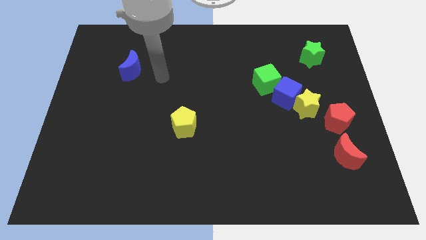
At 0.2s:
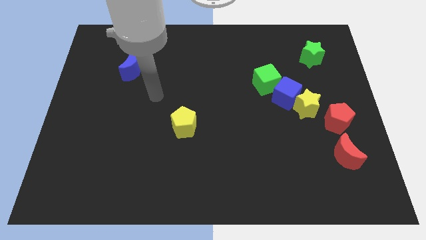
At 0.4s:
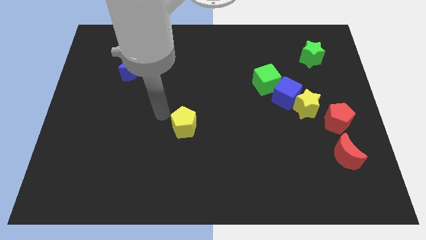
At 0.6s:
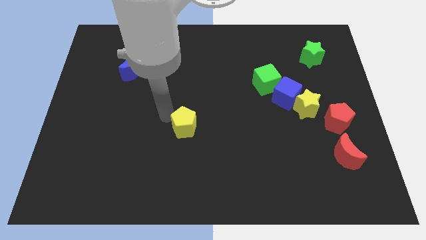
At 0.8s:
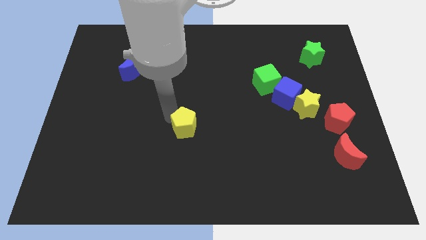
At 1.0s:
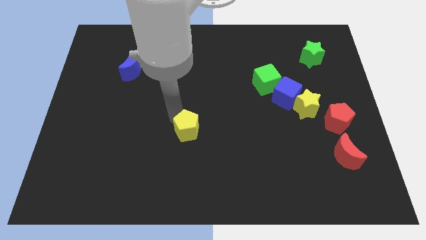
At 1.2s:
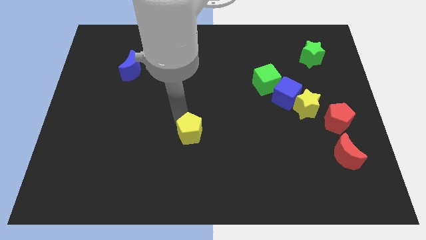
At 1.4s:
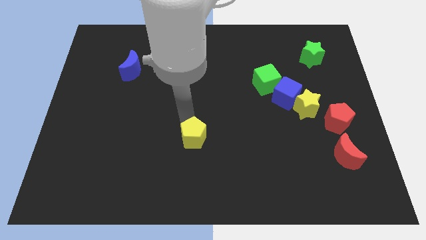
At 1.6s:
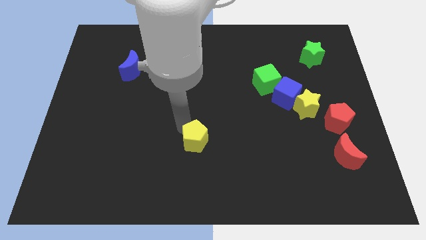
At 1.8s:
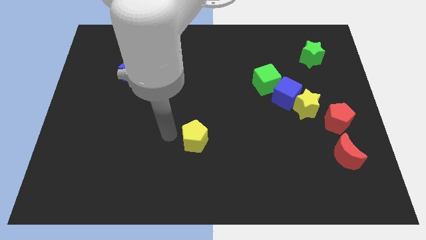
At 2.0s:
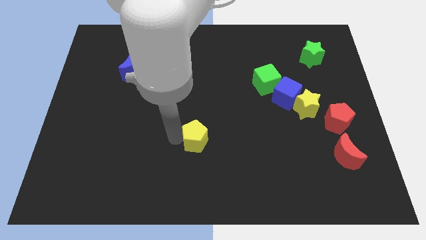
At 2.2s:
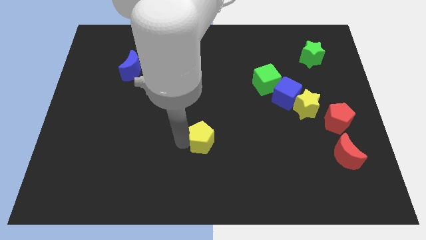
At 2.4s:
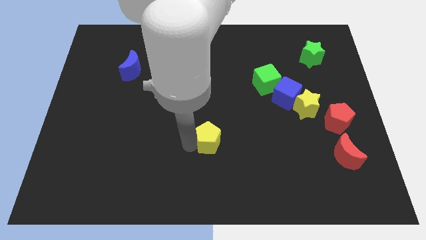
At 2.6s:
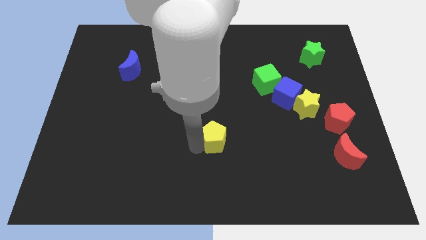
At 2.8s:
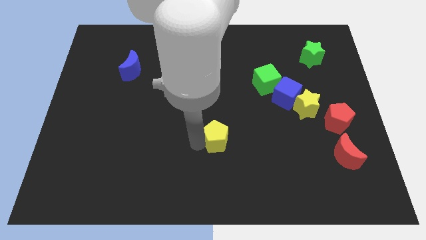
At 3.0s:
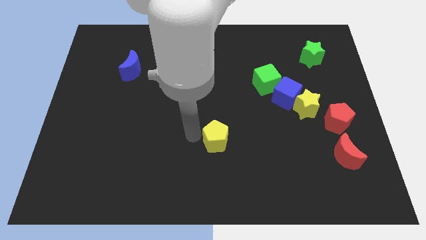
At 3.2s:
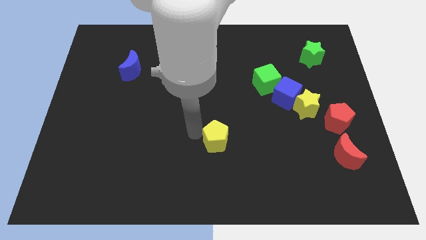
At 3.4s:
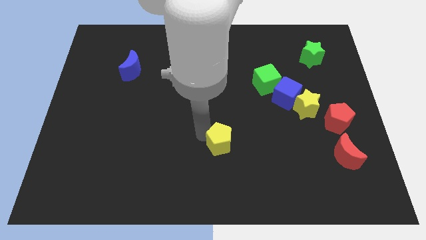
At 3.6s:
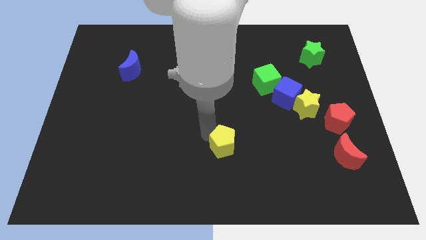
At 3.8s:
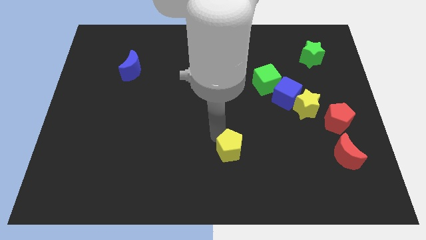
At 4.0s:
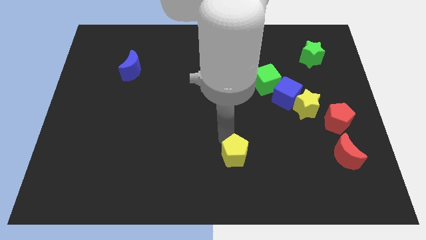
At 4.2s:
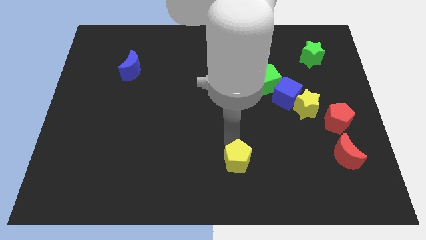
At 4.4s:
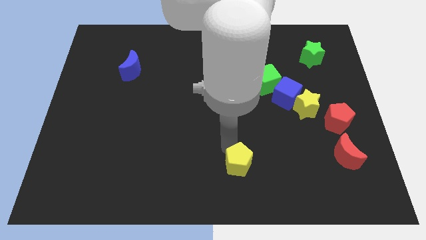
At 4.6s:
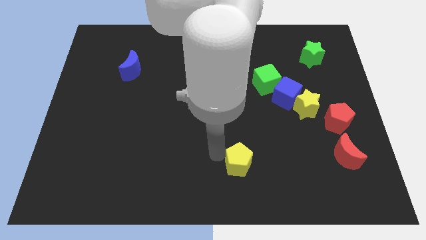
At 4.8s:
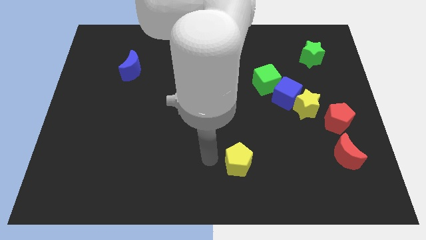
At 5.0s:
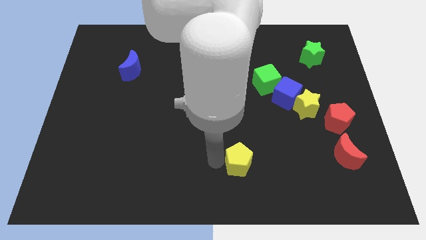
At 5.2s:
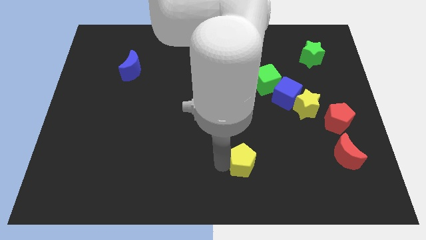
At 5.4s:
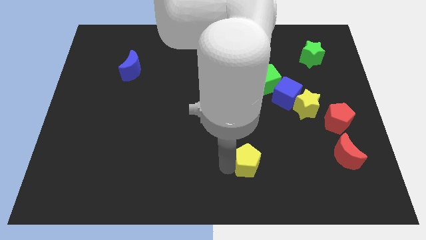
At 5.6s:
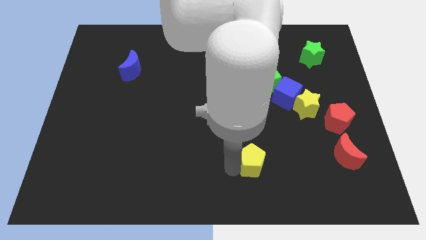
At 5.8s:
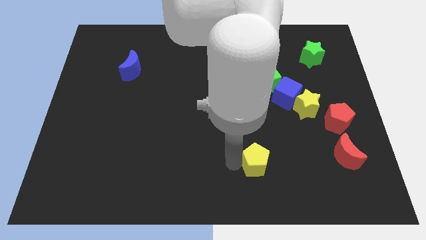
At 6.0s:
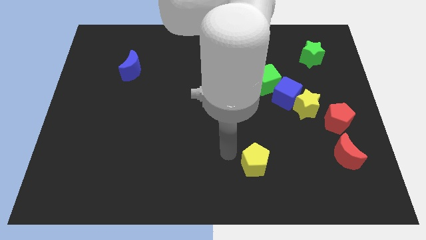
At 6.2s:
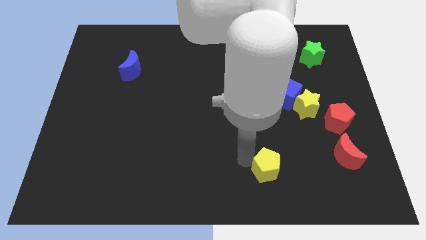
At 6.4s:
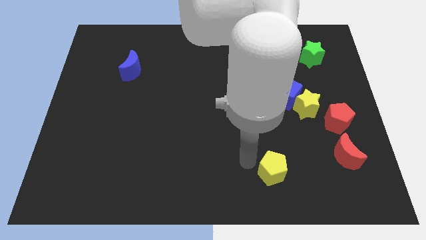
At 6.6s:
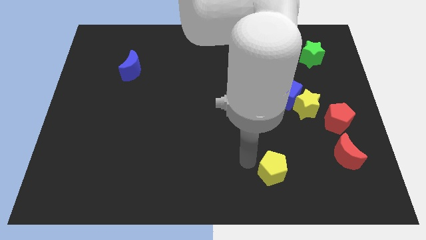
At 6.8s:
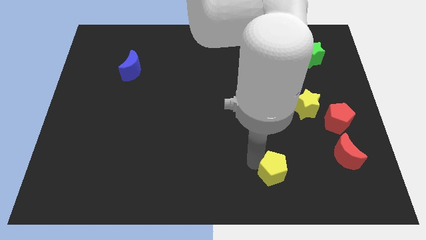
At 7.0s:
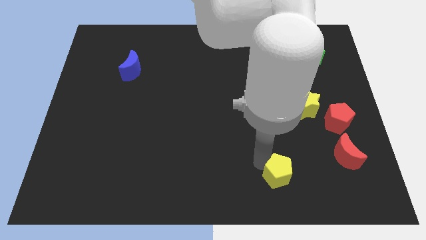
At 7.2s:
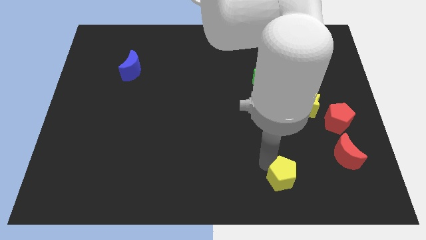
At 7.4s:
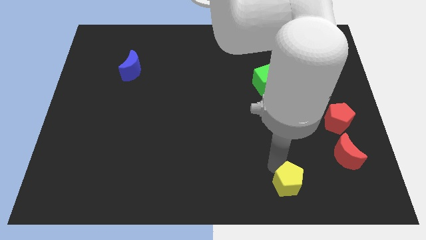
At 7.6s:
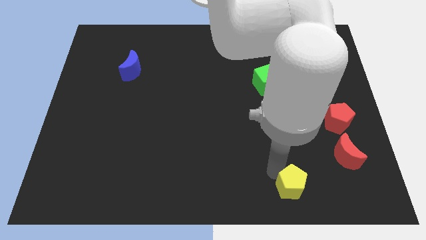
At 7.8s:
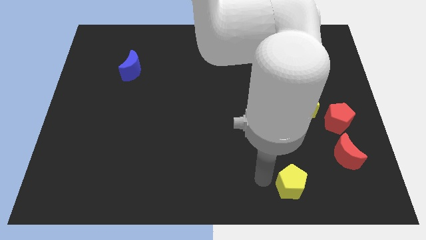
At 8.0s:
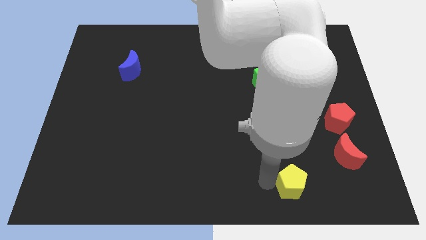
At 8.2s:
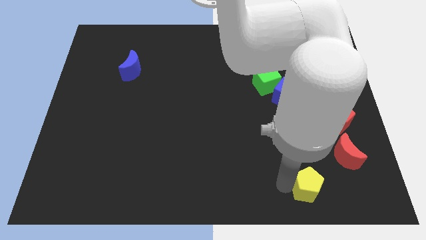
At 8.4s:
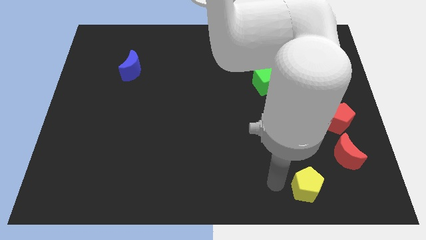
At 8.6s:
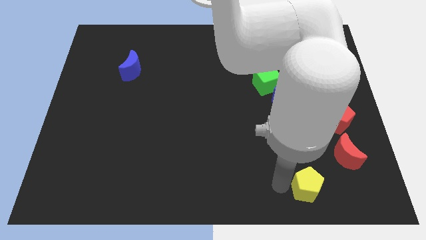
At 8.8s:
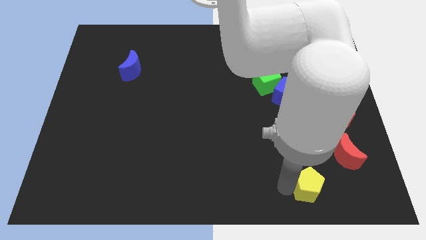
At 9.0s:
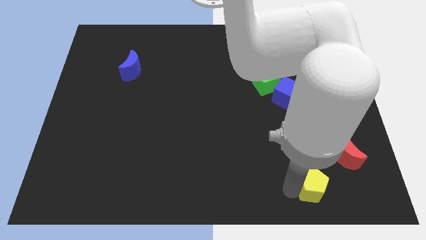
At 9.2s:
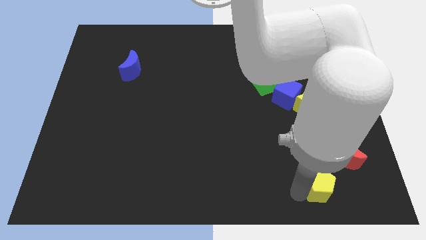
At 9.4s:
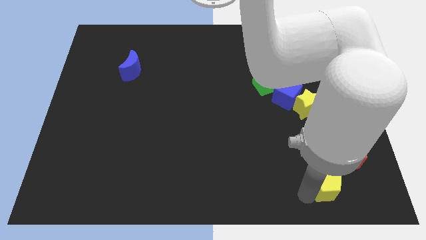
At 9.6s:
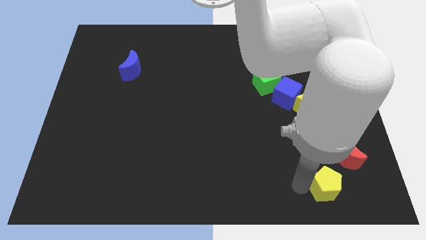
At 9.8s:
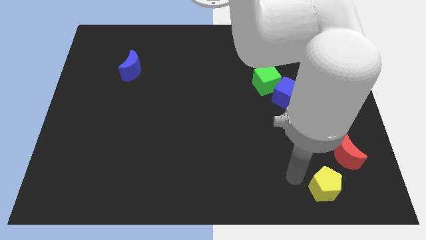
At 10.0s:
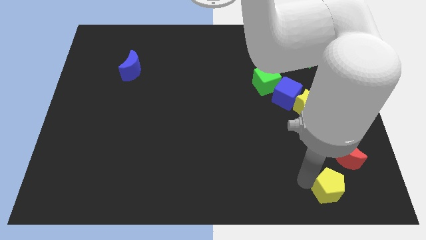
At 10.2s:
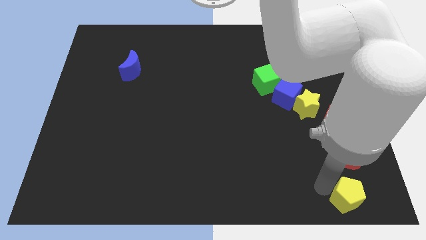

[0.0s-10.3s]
move the yellow pentagon to the bottom right of the board

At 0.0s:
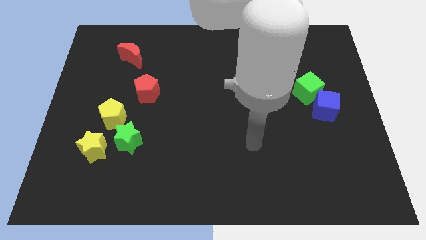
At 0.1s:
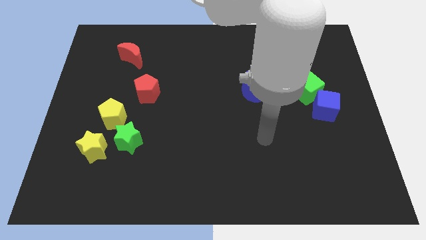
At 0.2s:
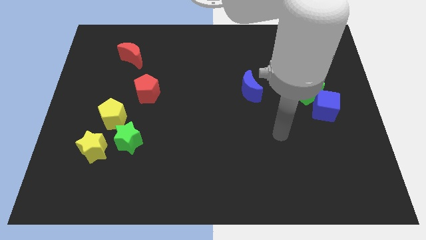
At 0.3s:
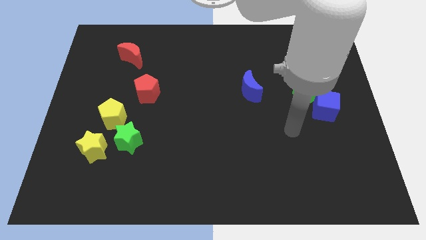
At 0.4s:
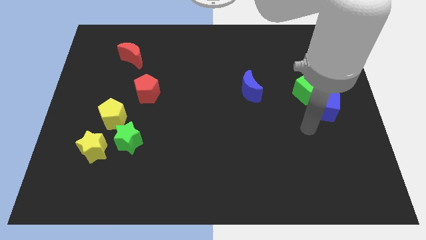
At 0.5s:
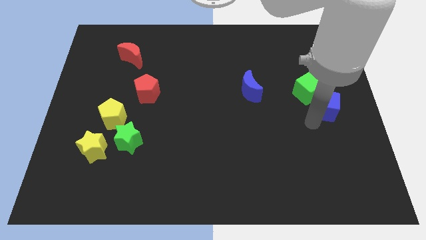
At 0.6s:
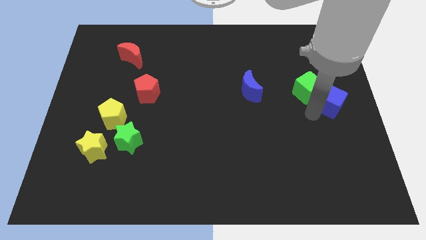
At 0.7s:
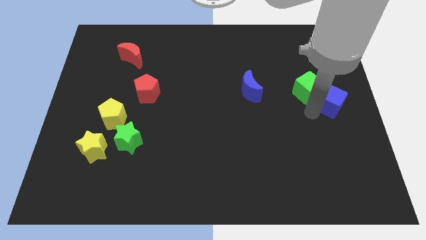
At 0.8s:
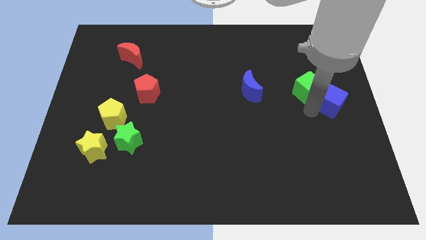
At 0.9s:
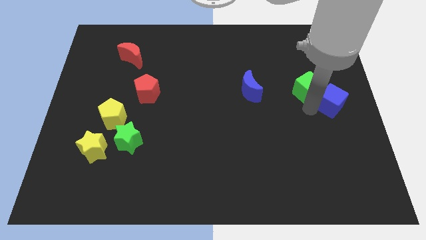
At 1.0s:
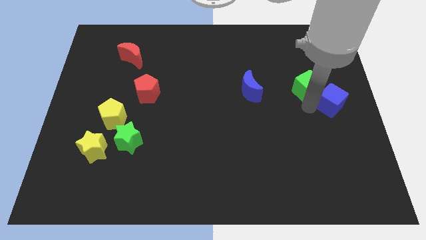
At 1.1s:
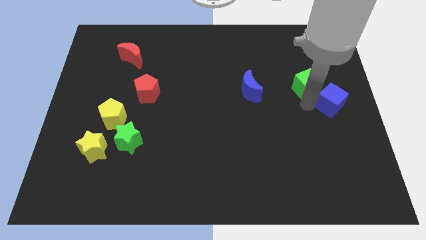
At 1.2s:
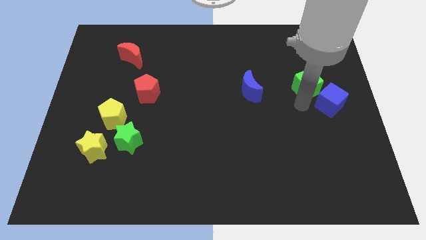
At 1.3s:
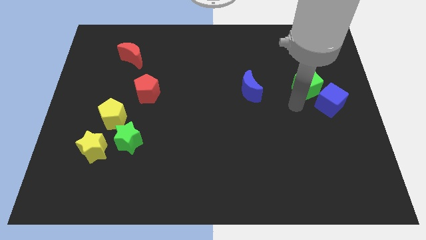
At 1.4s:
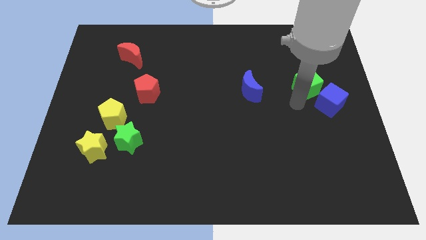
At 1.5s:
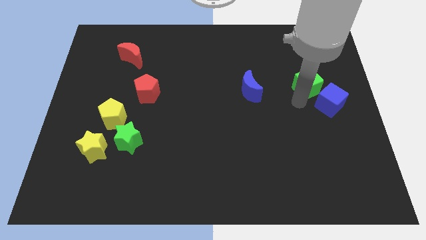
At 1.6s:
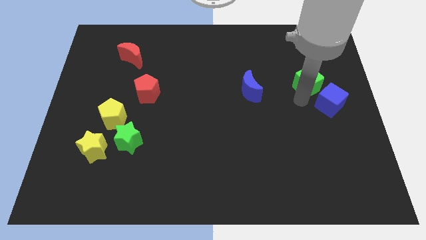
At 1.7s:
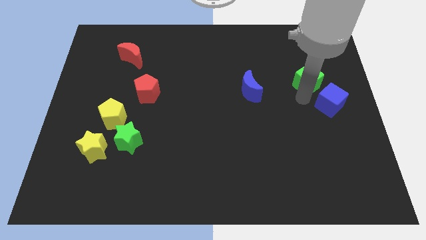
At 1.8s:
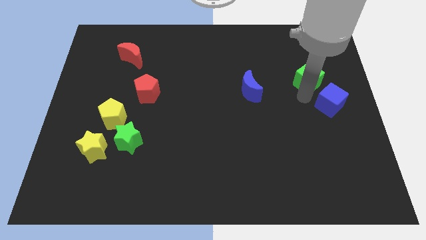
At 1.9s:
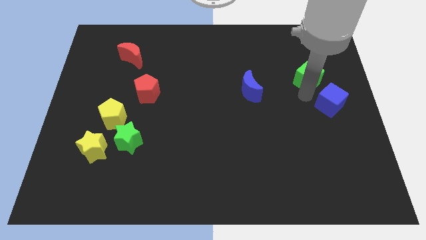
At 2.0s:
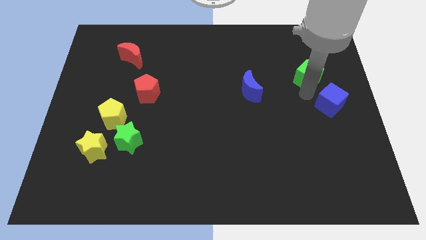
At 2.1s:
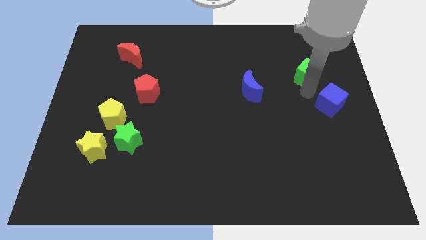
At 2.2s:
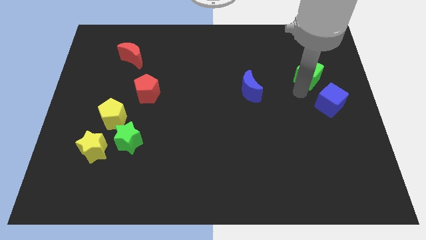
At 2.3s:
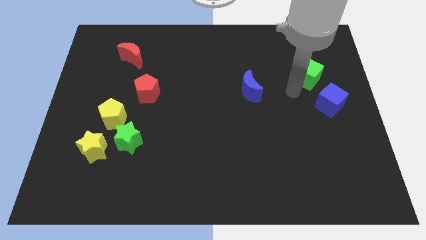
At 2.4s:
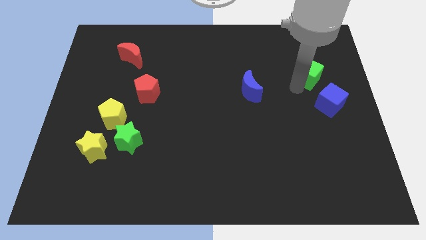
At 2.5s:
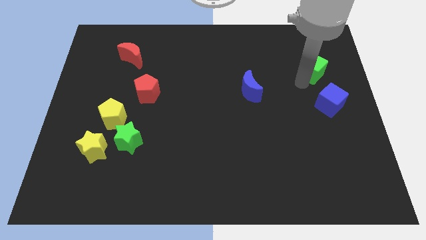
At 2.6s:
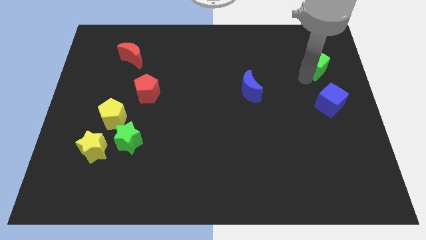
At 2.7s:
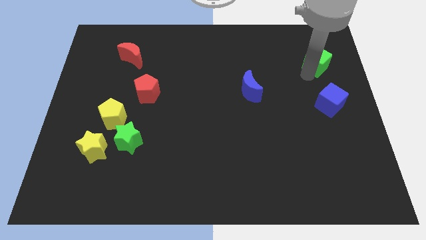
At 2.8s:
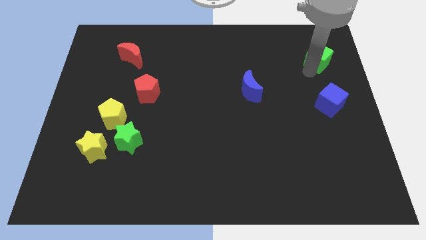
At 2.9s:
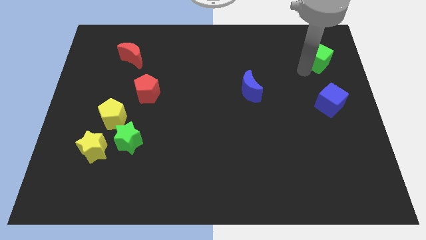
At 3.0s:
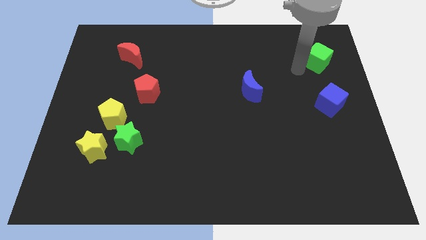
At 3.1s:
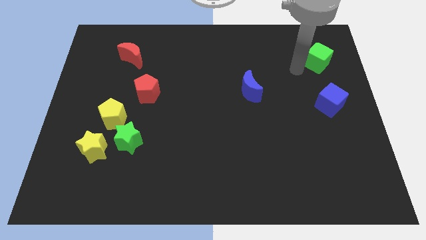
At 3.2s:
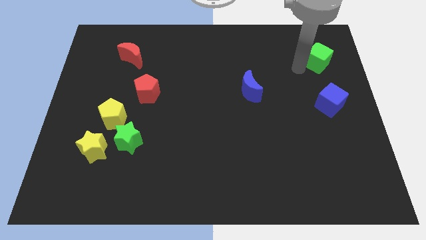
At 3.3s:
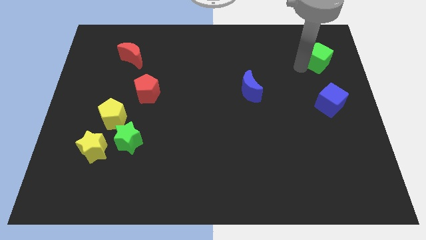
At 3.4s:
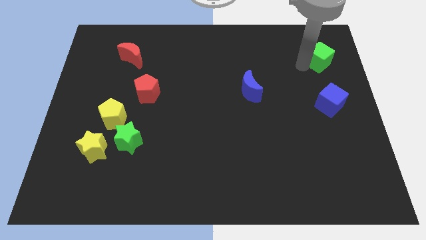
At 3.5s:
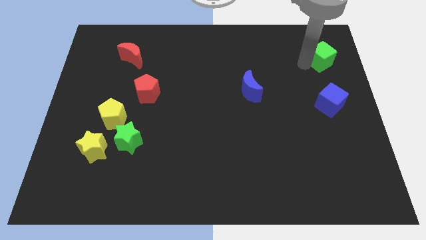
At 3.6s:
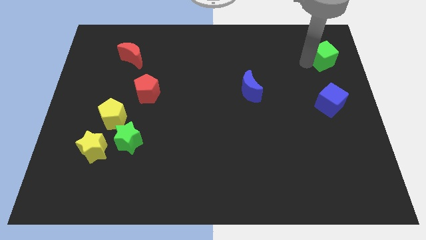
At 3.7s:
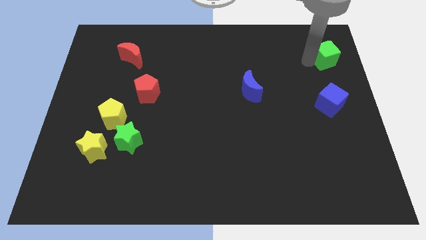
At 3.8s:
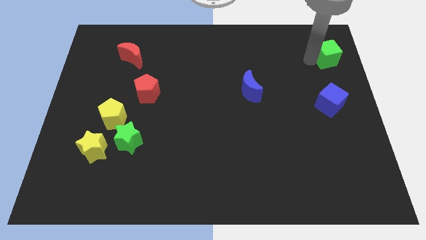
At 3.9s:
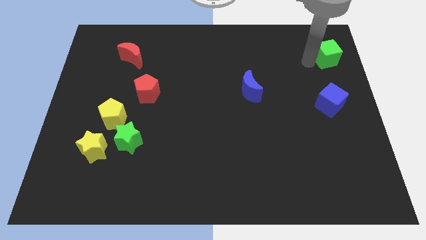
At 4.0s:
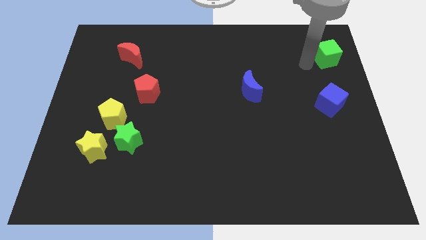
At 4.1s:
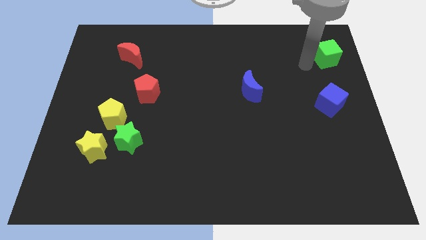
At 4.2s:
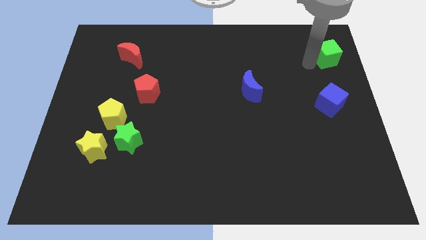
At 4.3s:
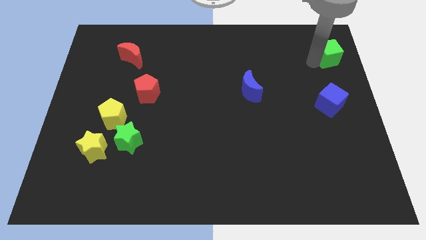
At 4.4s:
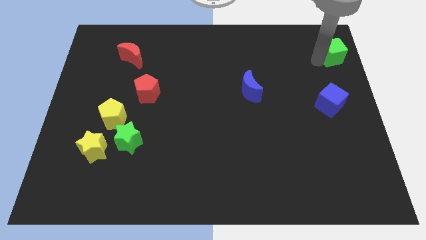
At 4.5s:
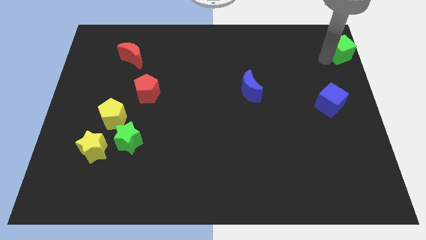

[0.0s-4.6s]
put the green cube to the top right corner
